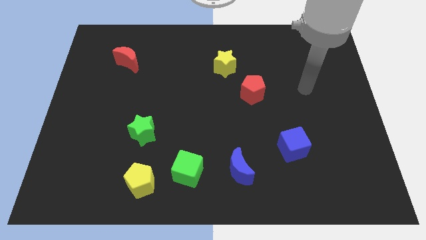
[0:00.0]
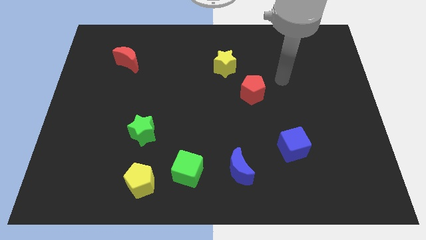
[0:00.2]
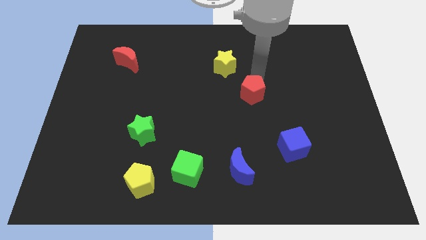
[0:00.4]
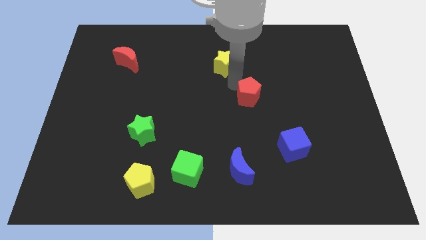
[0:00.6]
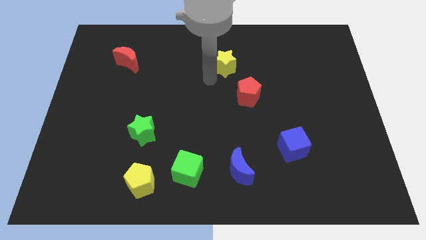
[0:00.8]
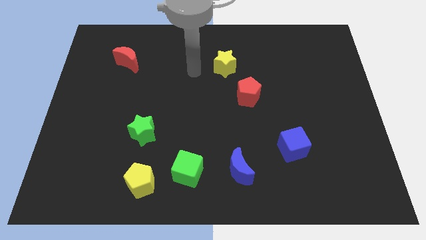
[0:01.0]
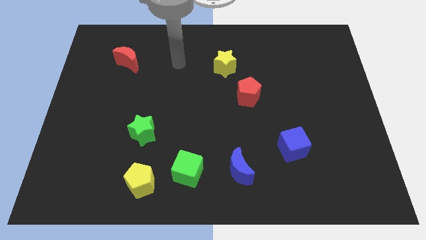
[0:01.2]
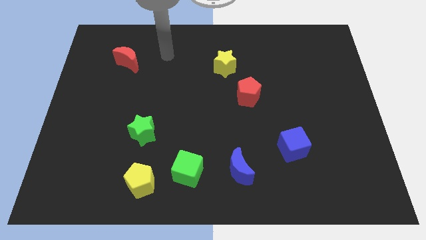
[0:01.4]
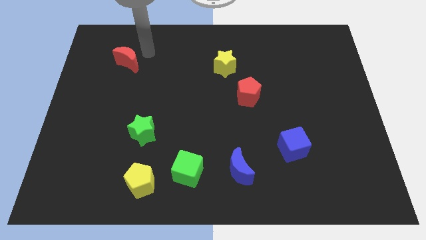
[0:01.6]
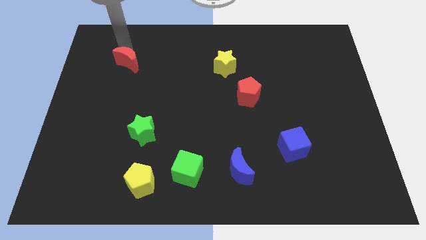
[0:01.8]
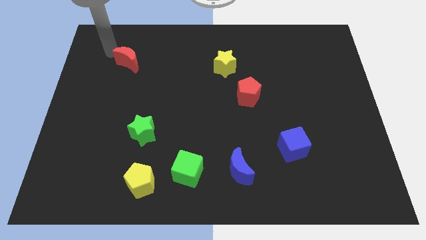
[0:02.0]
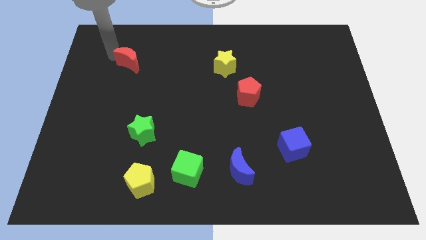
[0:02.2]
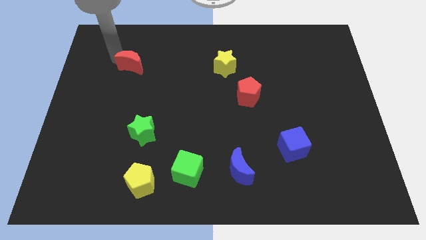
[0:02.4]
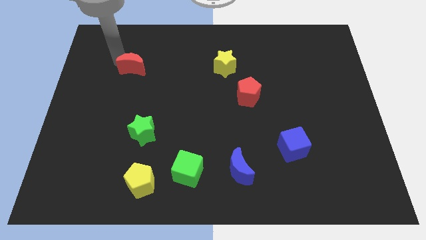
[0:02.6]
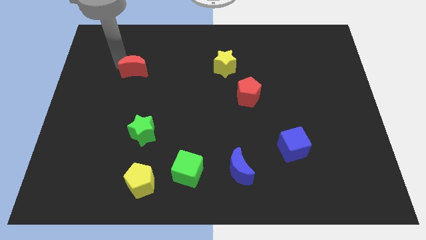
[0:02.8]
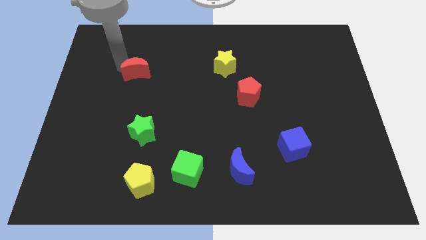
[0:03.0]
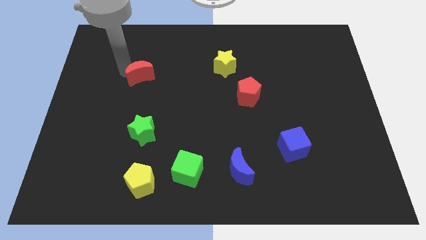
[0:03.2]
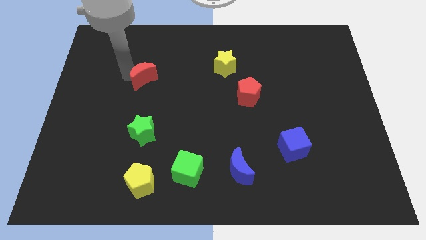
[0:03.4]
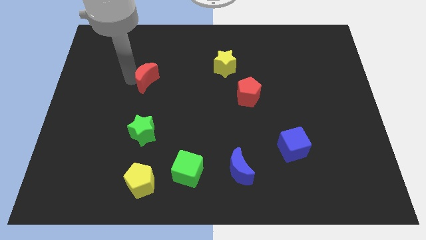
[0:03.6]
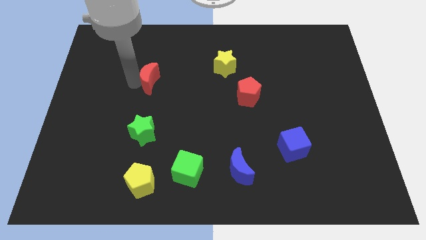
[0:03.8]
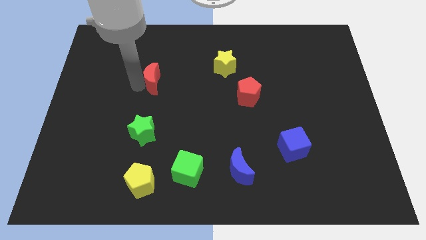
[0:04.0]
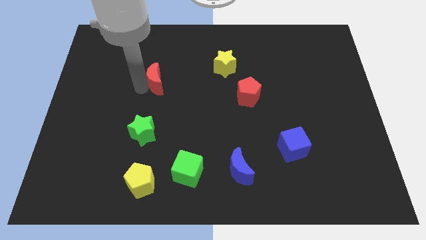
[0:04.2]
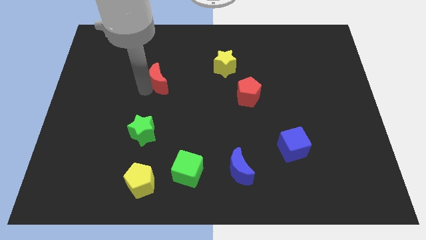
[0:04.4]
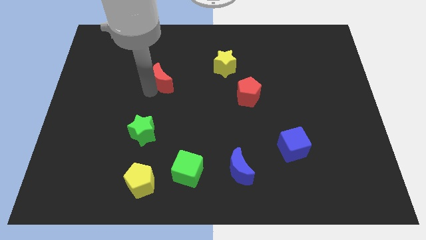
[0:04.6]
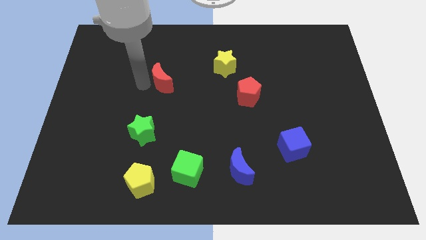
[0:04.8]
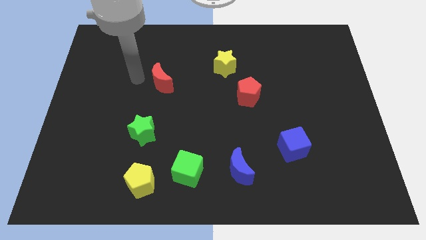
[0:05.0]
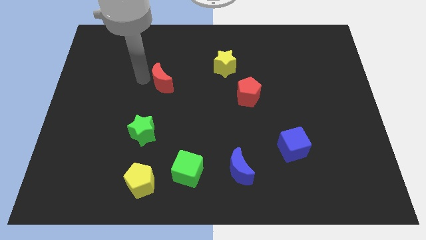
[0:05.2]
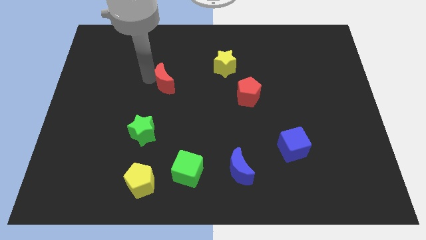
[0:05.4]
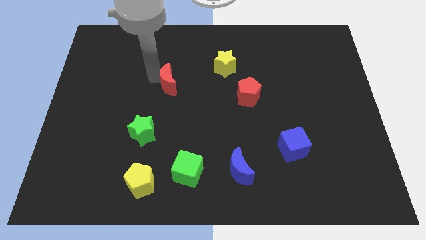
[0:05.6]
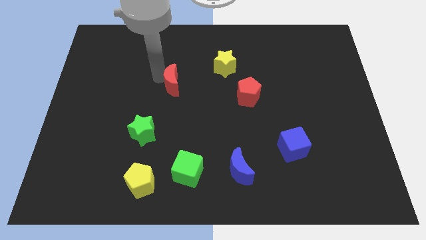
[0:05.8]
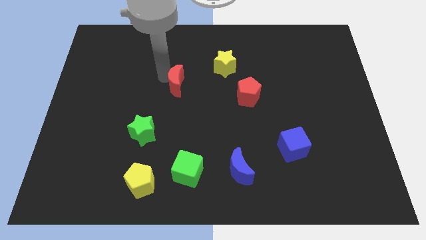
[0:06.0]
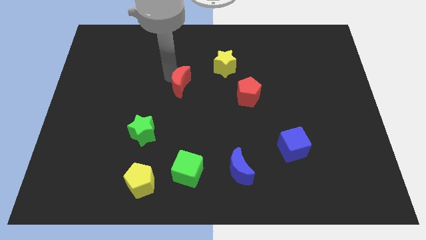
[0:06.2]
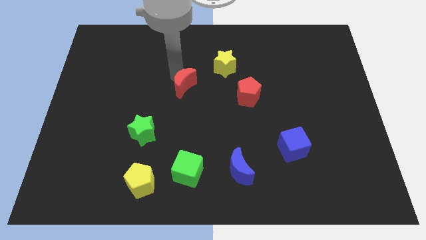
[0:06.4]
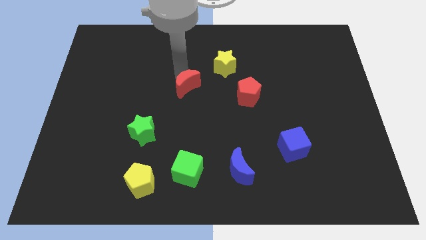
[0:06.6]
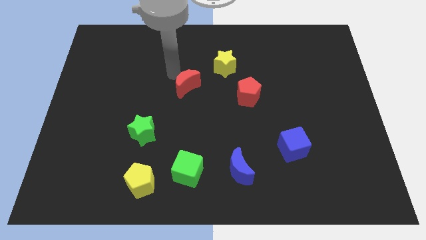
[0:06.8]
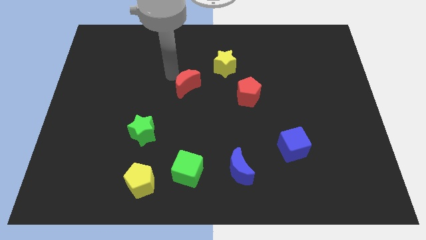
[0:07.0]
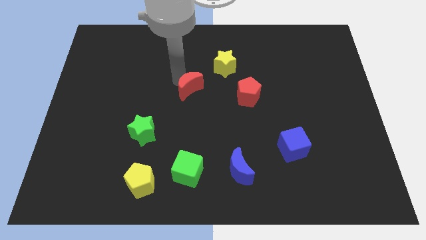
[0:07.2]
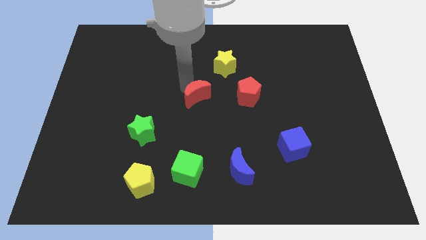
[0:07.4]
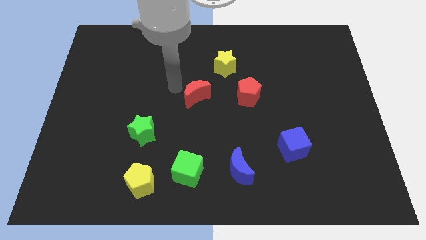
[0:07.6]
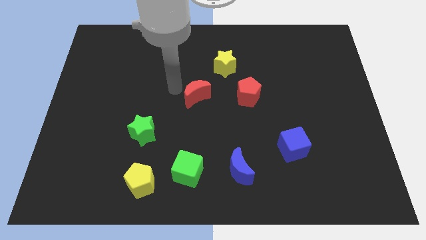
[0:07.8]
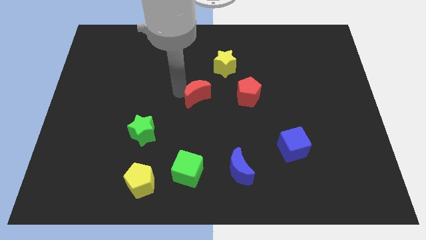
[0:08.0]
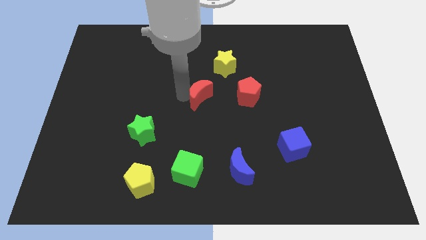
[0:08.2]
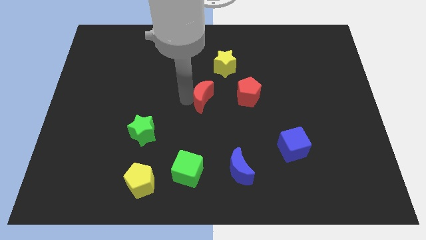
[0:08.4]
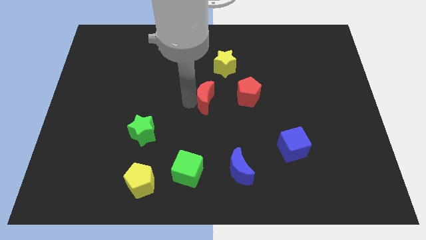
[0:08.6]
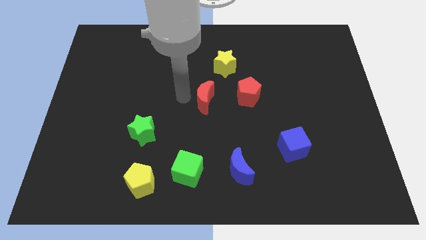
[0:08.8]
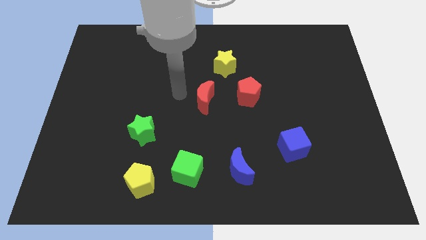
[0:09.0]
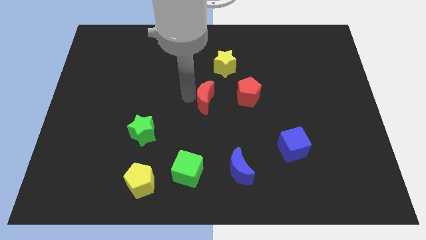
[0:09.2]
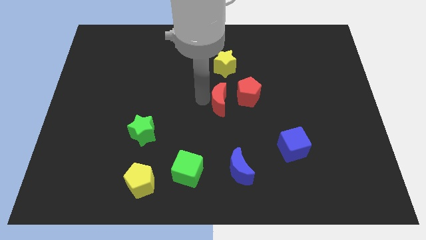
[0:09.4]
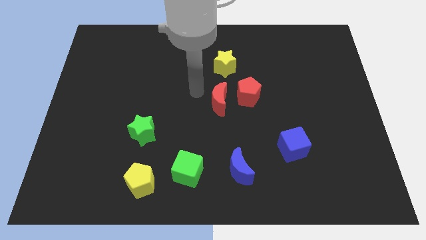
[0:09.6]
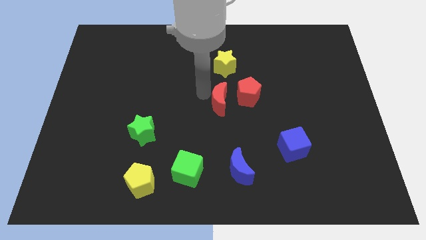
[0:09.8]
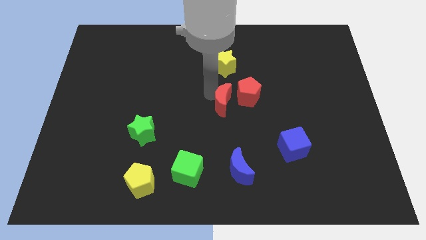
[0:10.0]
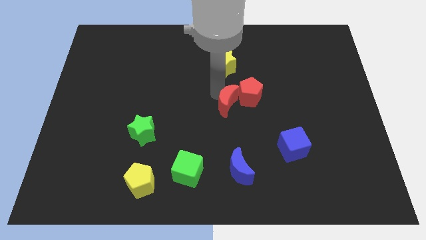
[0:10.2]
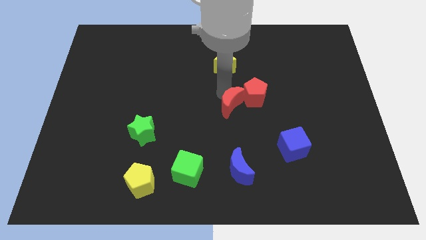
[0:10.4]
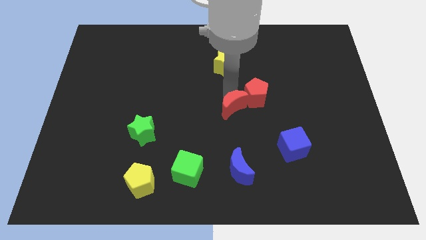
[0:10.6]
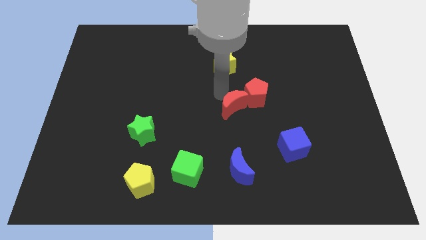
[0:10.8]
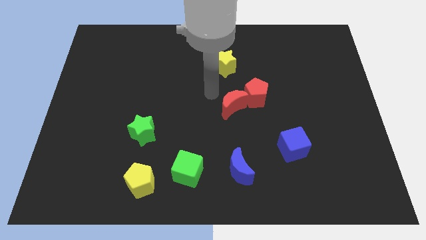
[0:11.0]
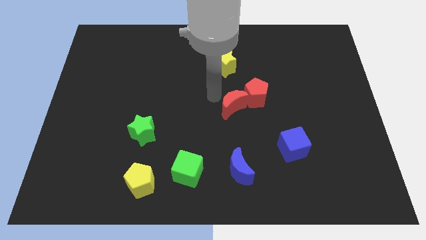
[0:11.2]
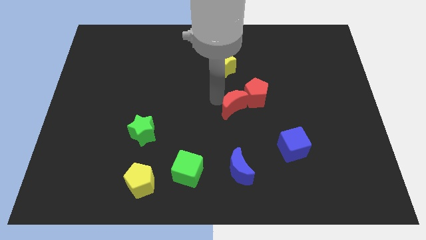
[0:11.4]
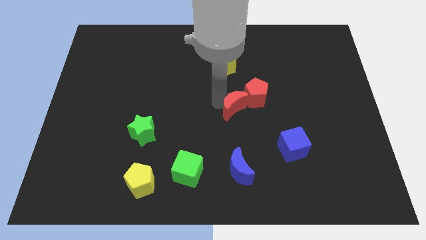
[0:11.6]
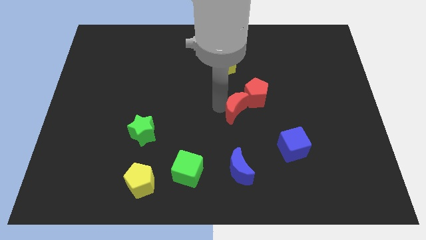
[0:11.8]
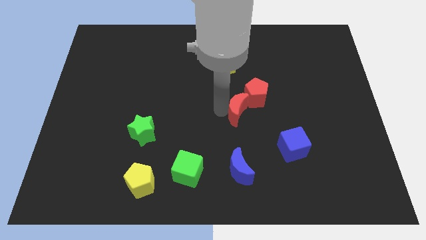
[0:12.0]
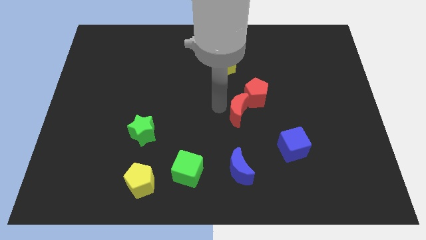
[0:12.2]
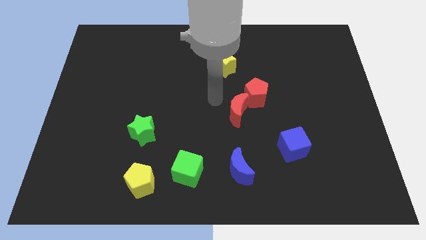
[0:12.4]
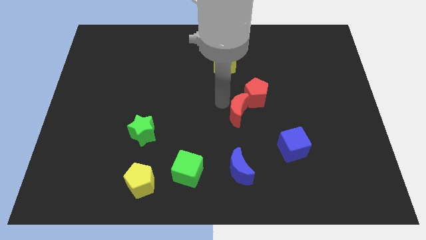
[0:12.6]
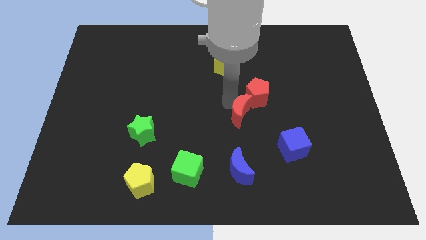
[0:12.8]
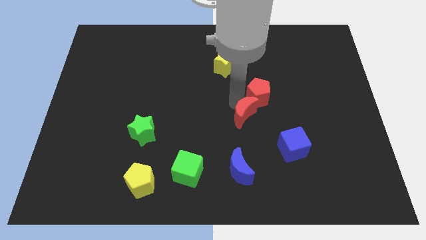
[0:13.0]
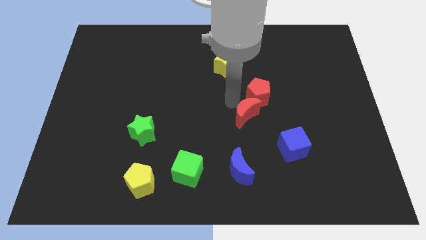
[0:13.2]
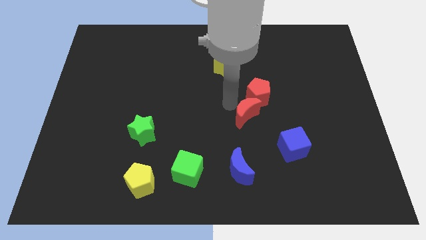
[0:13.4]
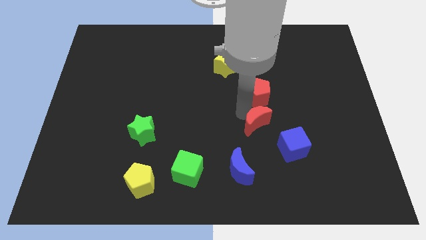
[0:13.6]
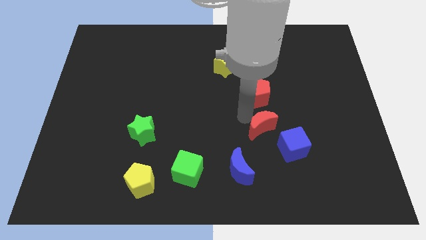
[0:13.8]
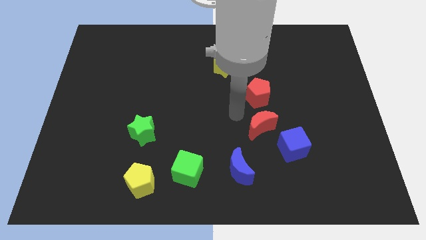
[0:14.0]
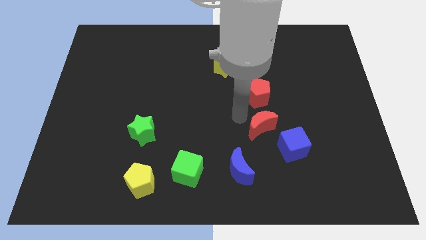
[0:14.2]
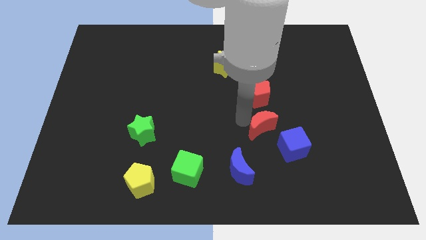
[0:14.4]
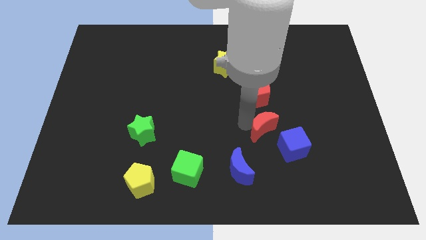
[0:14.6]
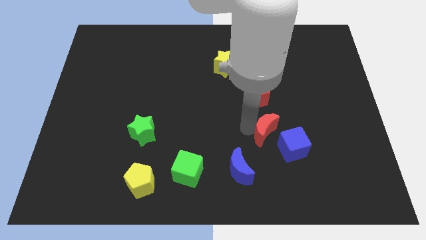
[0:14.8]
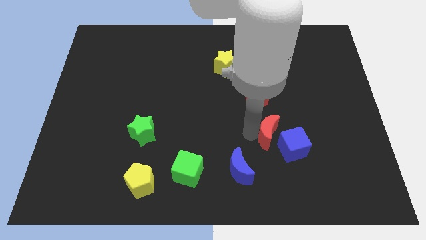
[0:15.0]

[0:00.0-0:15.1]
move the red moon close to the blue cube
